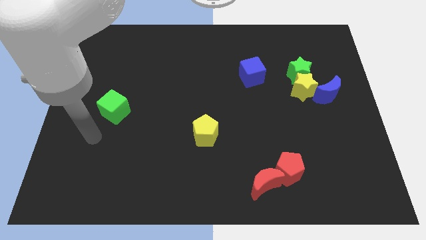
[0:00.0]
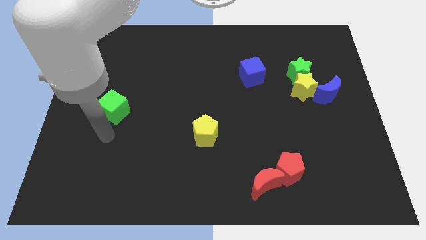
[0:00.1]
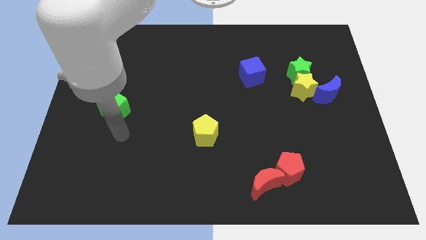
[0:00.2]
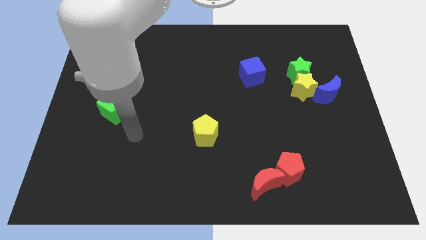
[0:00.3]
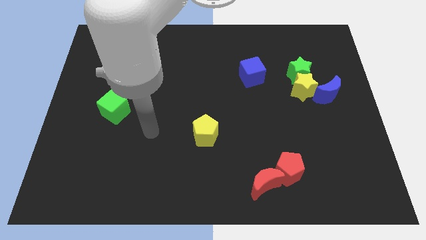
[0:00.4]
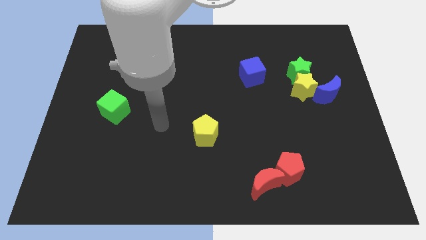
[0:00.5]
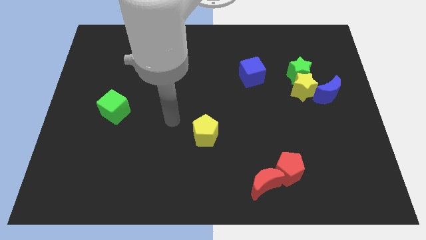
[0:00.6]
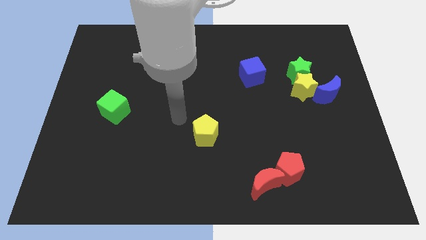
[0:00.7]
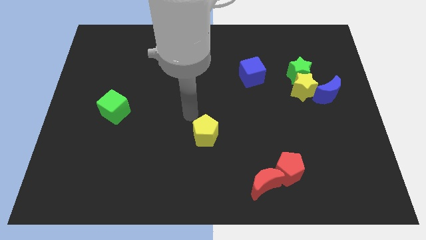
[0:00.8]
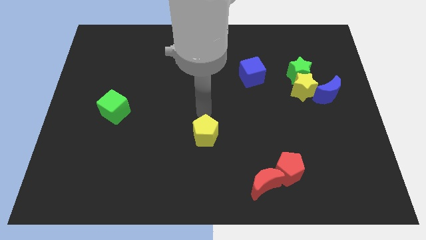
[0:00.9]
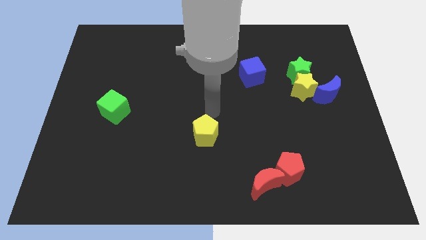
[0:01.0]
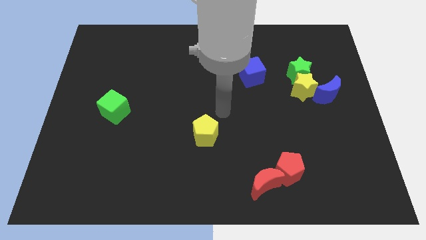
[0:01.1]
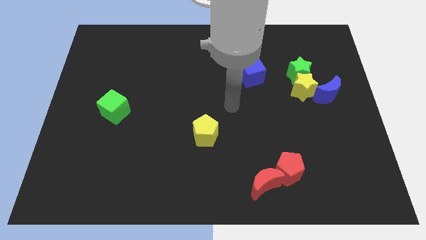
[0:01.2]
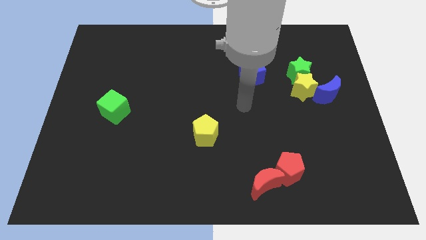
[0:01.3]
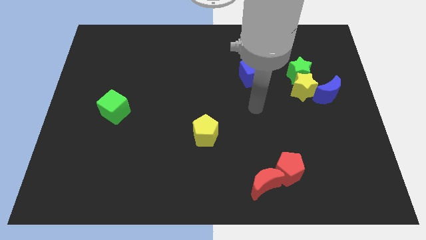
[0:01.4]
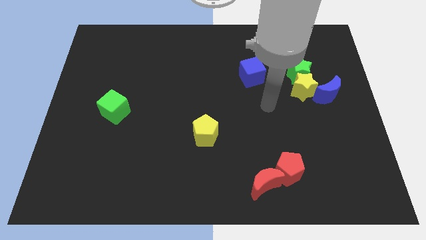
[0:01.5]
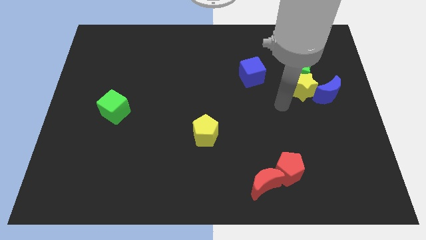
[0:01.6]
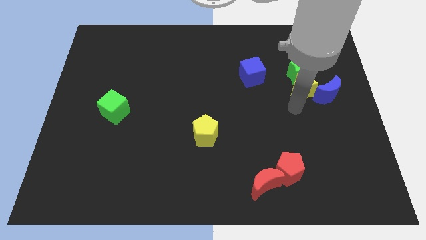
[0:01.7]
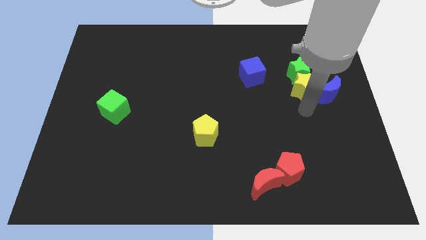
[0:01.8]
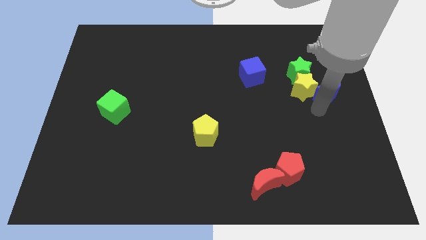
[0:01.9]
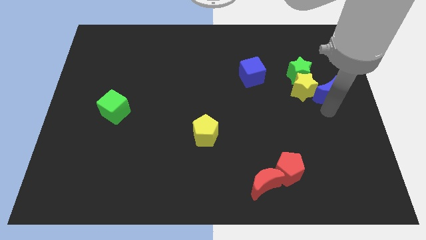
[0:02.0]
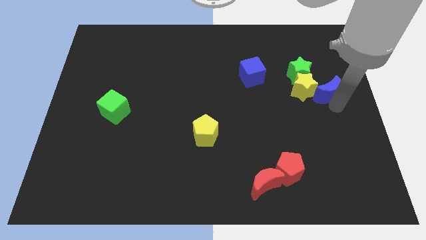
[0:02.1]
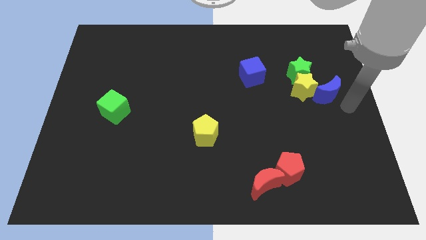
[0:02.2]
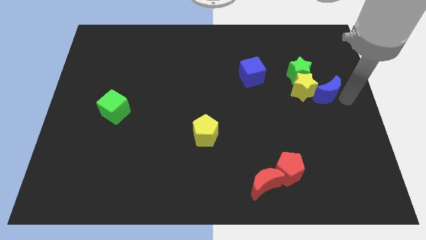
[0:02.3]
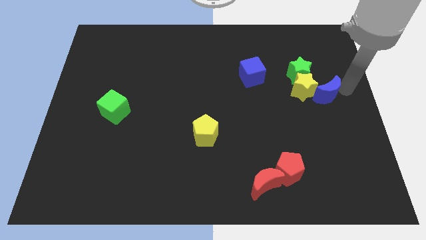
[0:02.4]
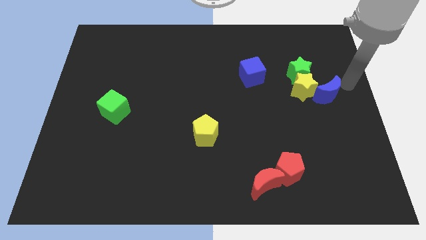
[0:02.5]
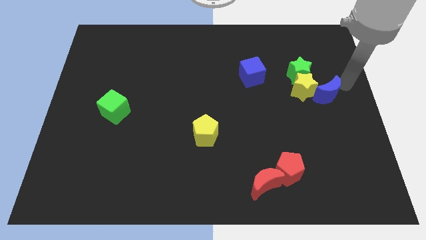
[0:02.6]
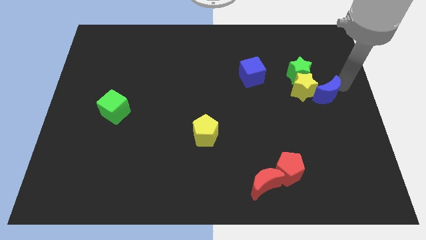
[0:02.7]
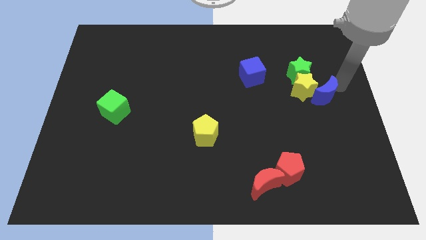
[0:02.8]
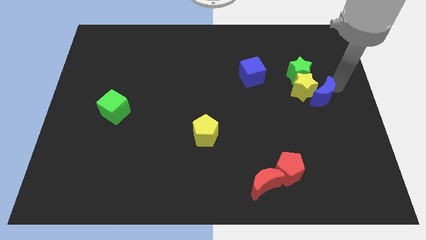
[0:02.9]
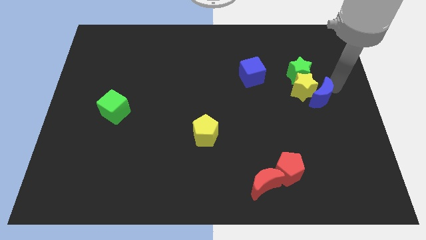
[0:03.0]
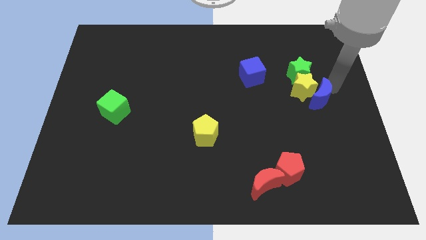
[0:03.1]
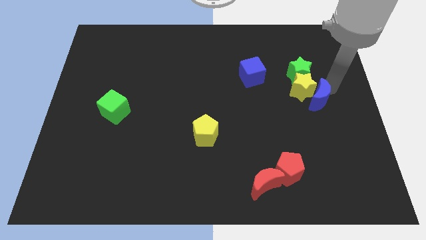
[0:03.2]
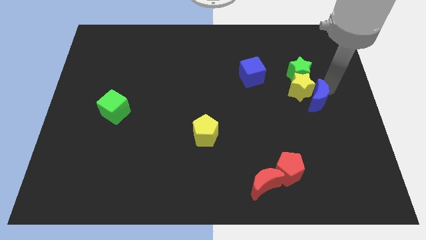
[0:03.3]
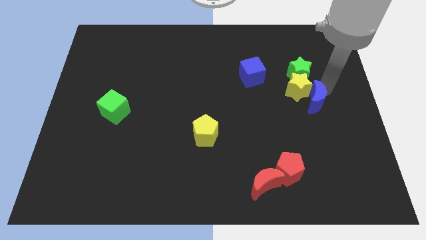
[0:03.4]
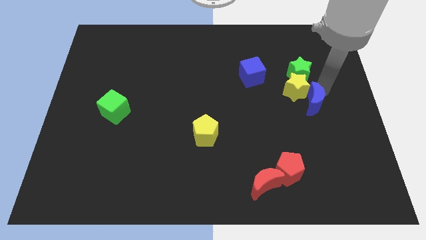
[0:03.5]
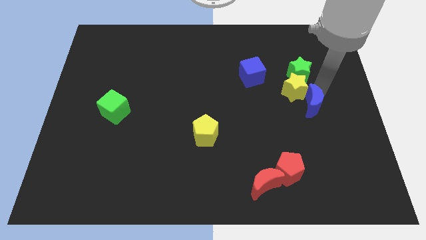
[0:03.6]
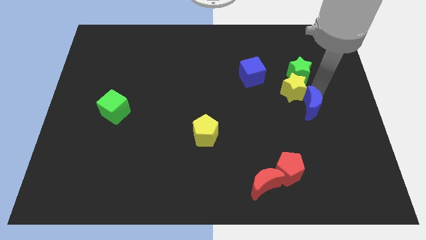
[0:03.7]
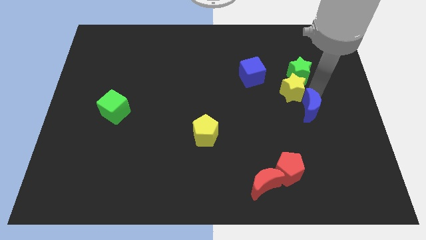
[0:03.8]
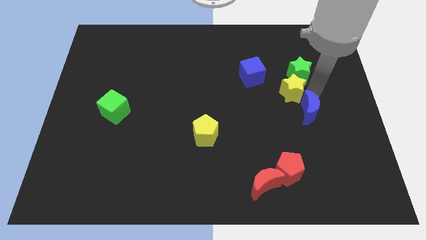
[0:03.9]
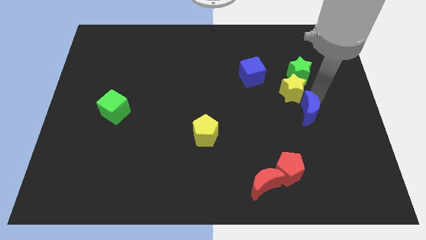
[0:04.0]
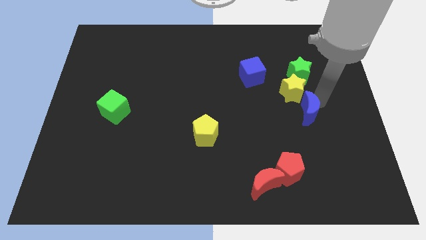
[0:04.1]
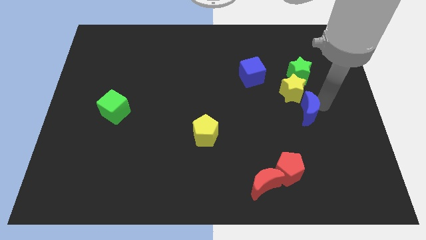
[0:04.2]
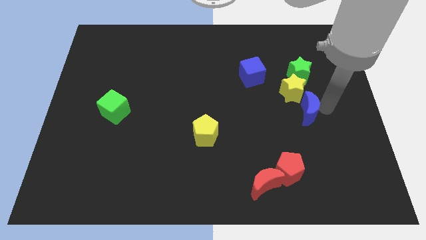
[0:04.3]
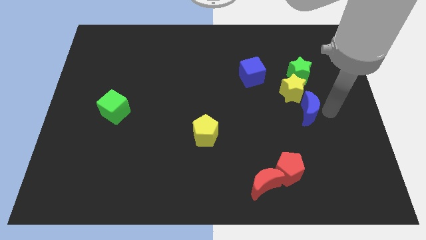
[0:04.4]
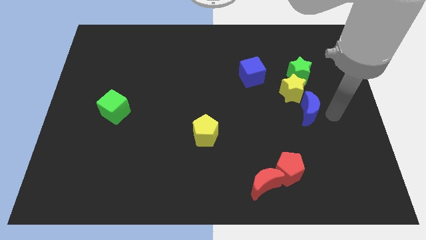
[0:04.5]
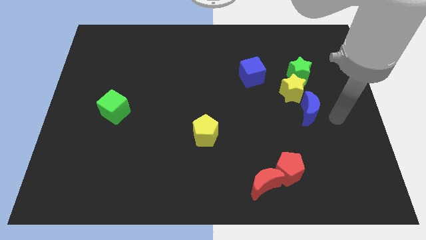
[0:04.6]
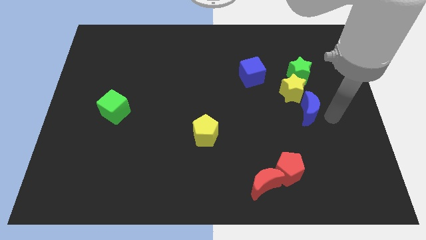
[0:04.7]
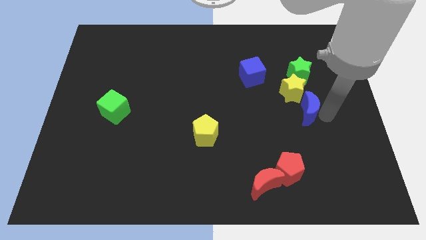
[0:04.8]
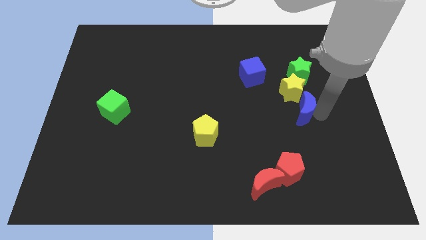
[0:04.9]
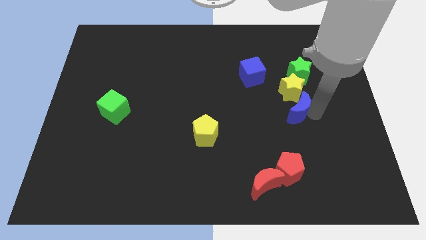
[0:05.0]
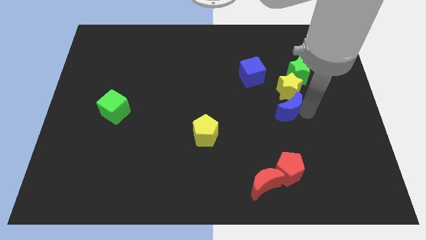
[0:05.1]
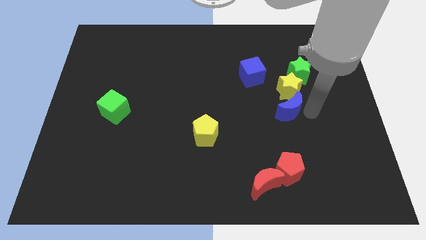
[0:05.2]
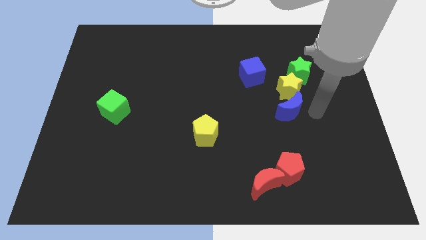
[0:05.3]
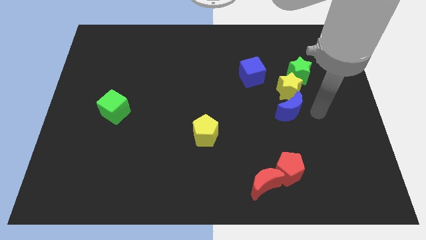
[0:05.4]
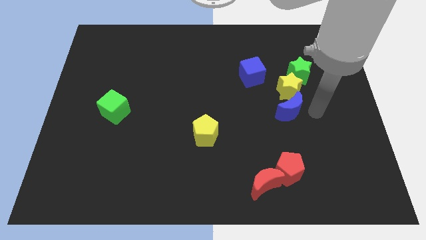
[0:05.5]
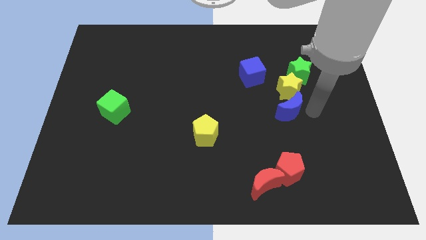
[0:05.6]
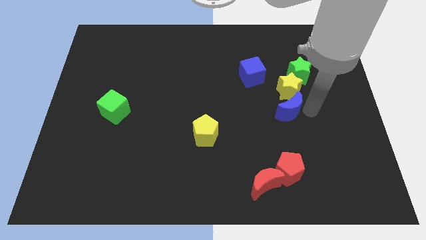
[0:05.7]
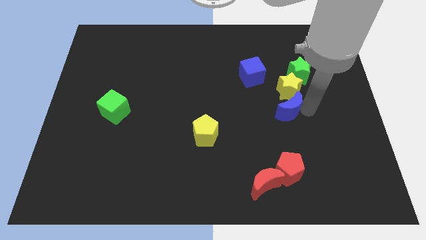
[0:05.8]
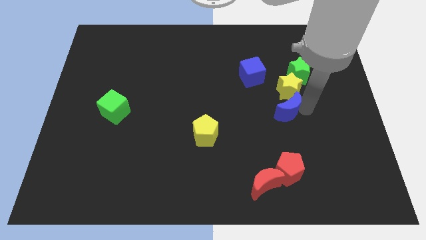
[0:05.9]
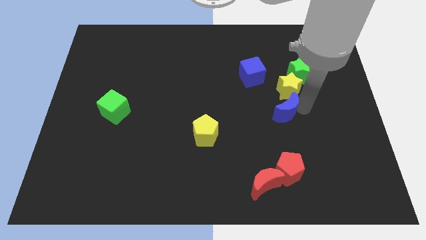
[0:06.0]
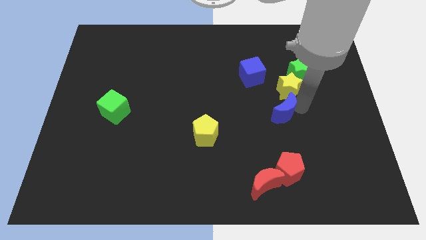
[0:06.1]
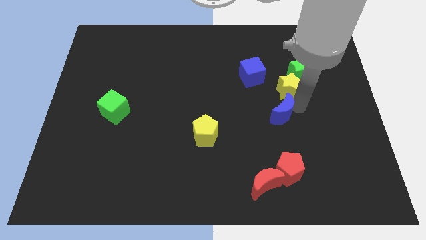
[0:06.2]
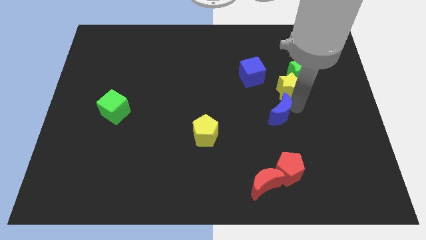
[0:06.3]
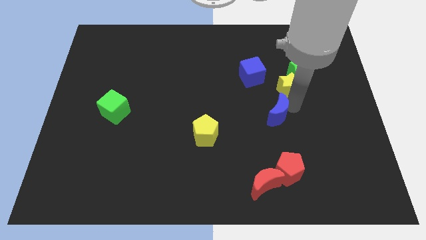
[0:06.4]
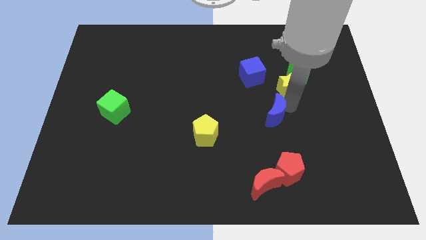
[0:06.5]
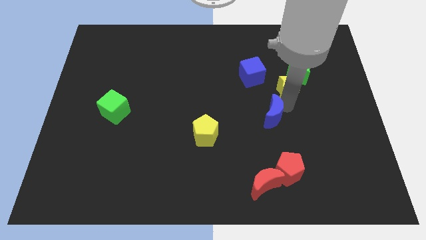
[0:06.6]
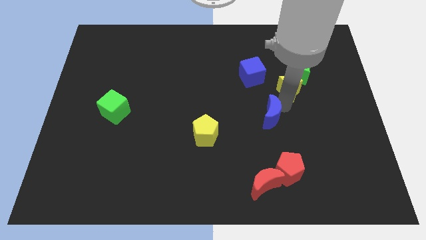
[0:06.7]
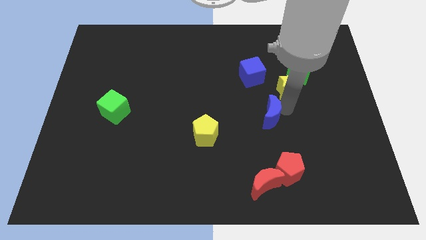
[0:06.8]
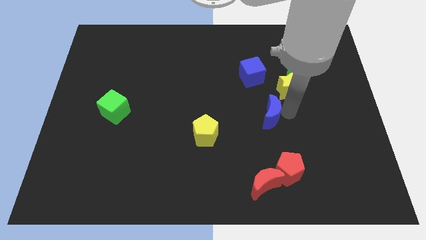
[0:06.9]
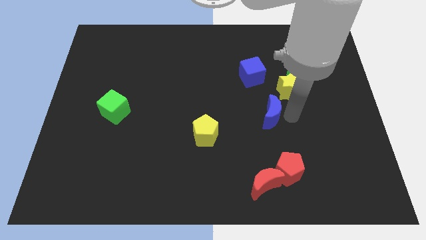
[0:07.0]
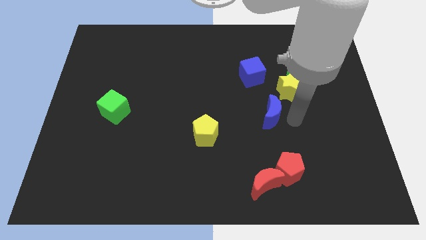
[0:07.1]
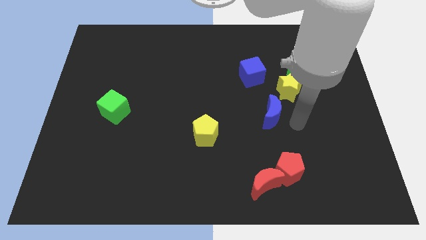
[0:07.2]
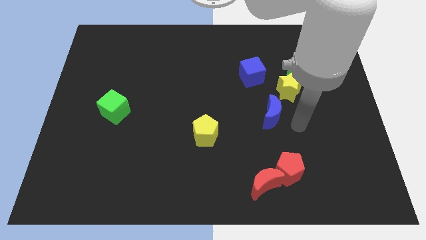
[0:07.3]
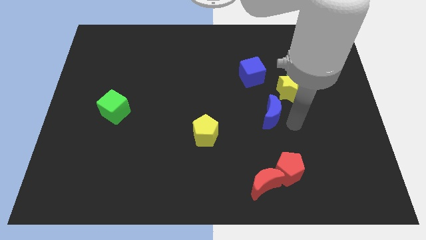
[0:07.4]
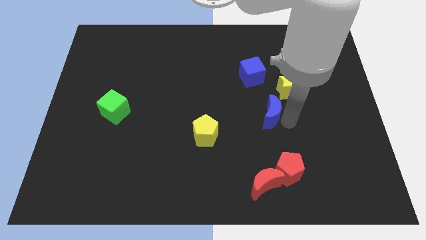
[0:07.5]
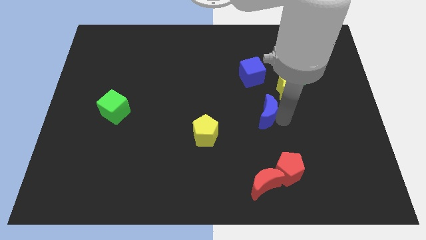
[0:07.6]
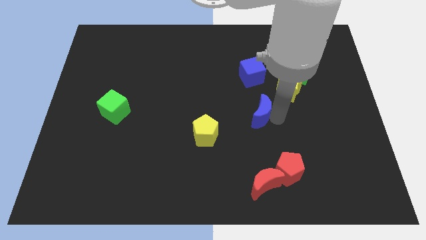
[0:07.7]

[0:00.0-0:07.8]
move the blue moon to the center of the board
